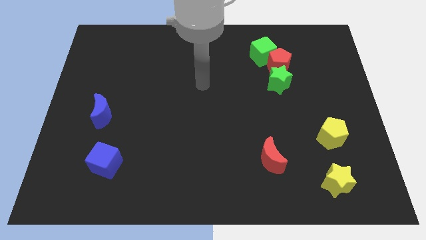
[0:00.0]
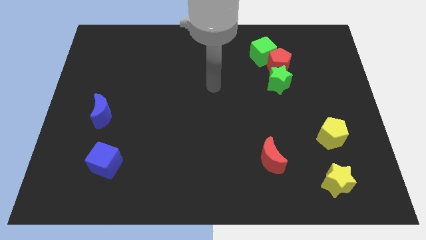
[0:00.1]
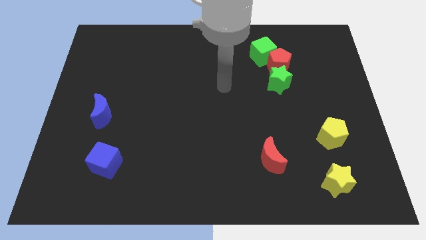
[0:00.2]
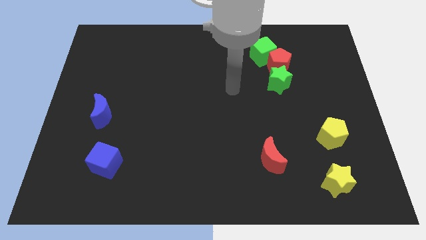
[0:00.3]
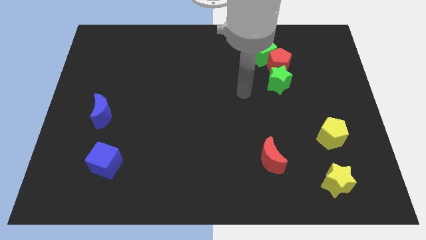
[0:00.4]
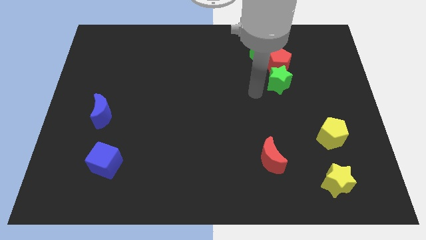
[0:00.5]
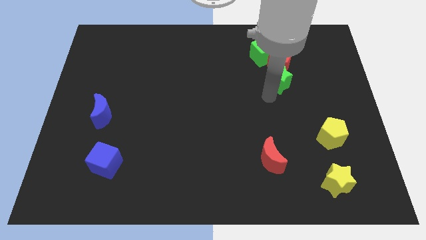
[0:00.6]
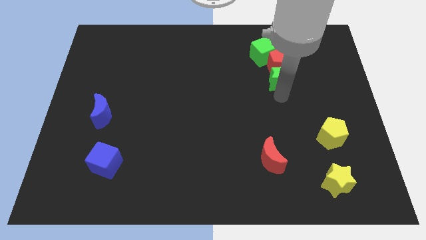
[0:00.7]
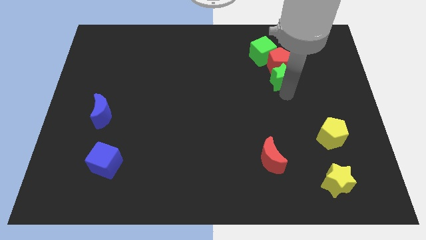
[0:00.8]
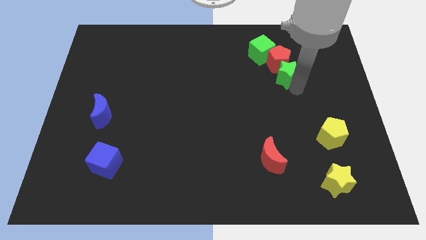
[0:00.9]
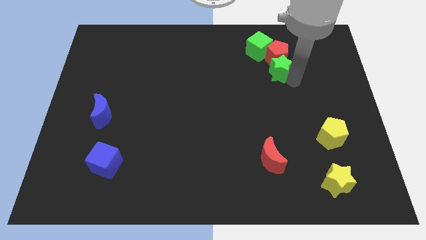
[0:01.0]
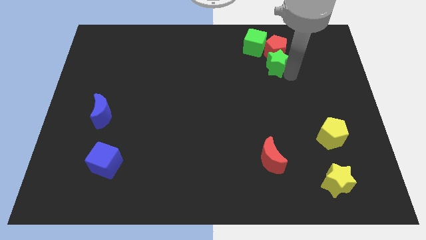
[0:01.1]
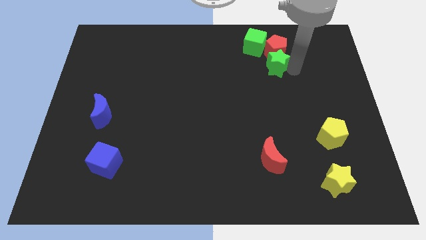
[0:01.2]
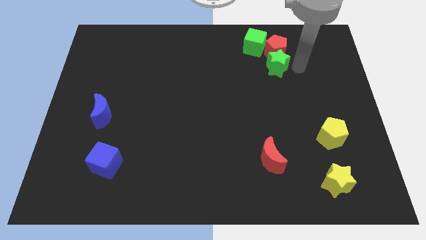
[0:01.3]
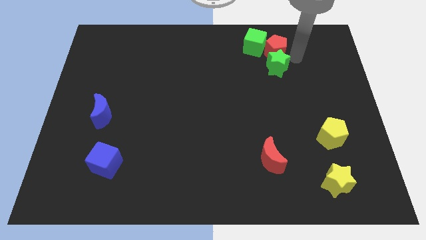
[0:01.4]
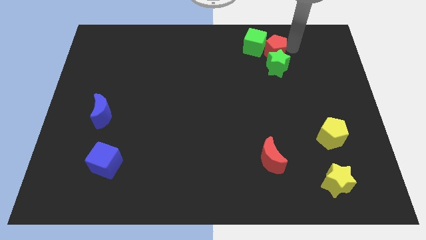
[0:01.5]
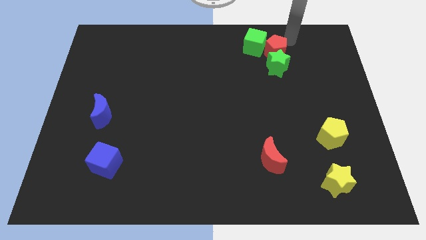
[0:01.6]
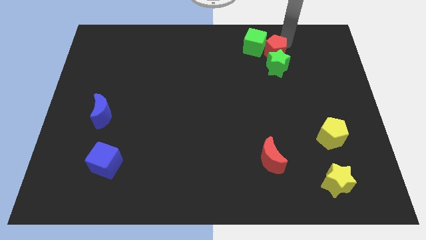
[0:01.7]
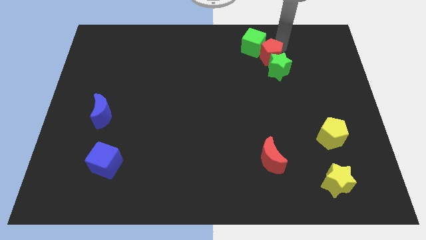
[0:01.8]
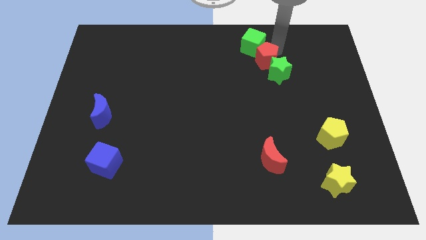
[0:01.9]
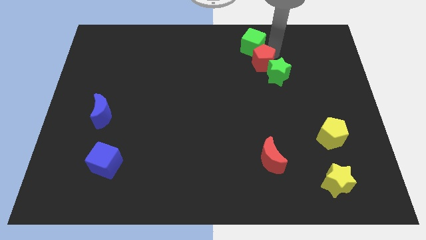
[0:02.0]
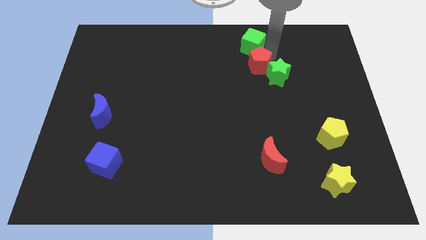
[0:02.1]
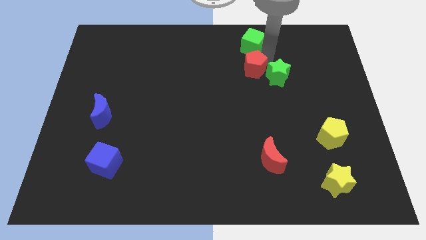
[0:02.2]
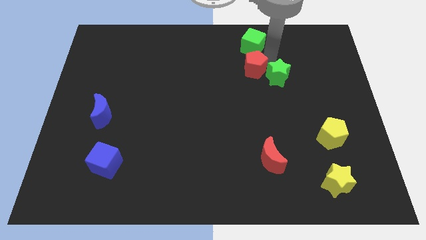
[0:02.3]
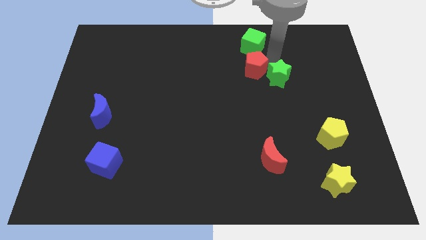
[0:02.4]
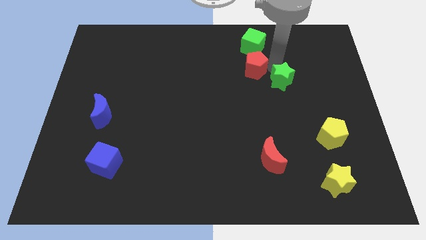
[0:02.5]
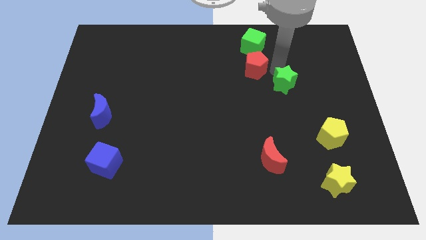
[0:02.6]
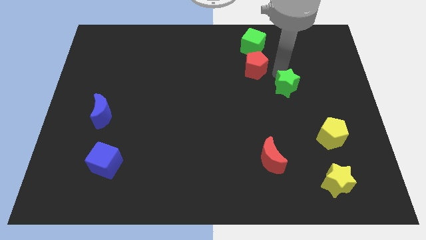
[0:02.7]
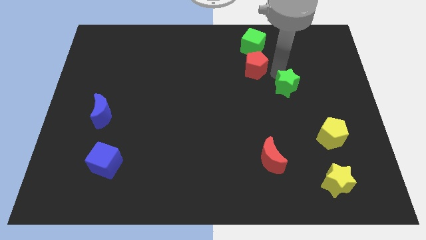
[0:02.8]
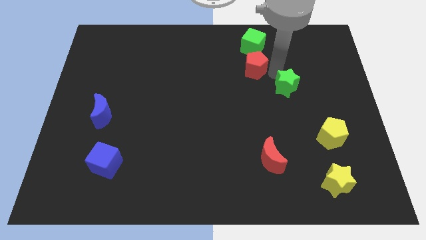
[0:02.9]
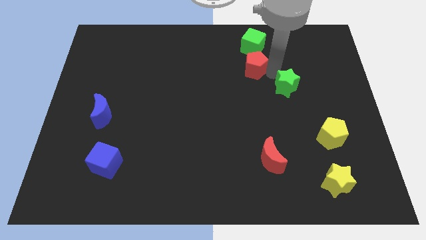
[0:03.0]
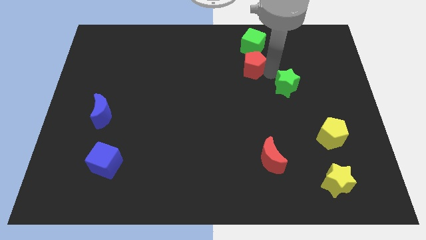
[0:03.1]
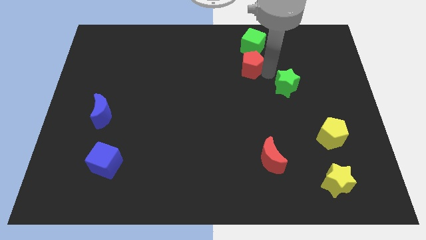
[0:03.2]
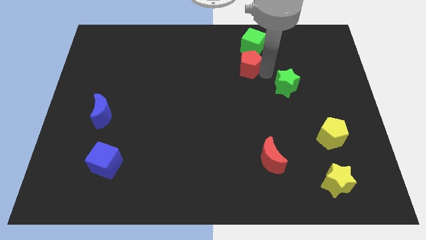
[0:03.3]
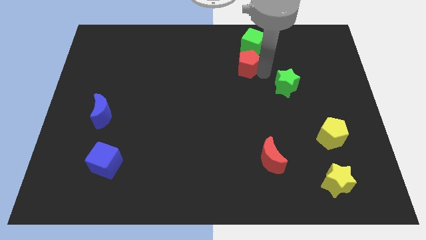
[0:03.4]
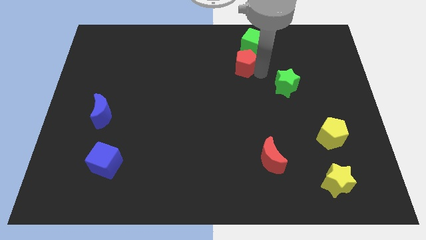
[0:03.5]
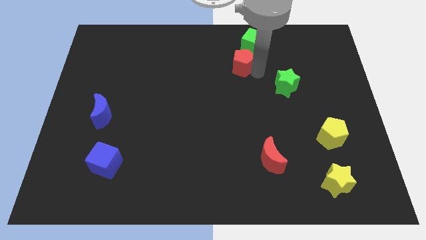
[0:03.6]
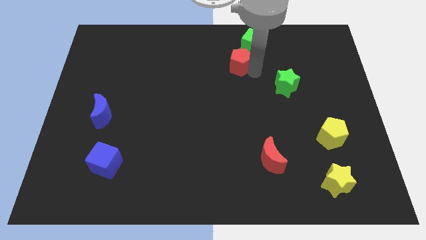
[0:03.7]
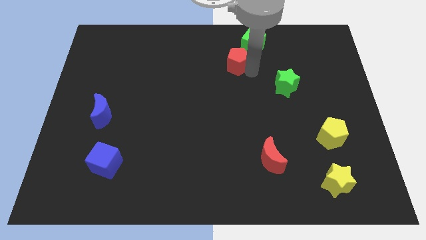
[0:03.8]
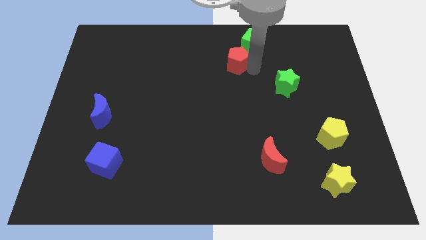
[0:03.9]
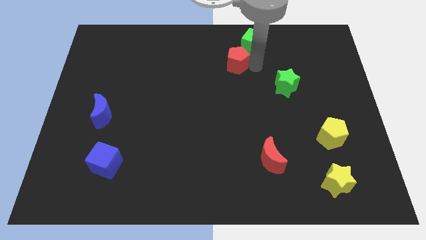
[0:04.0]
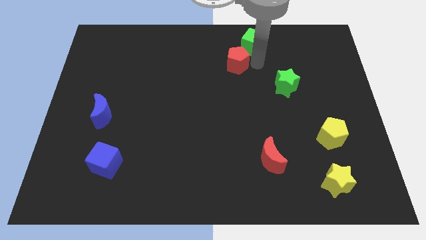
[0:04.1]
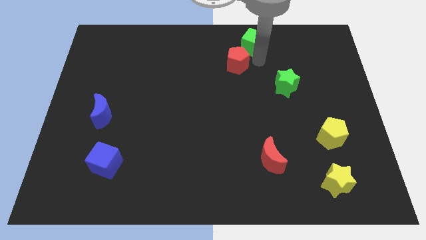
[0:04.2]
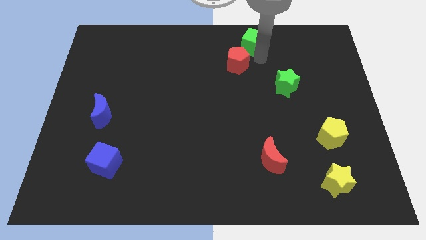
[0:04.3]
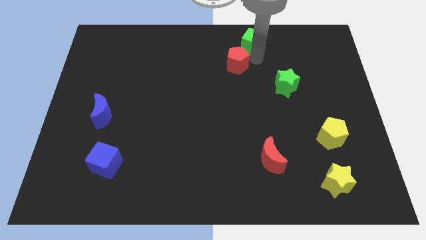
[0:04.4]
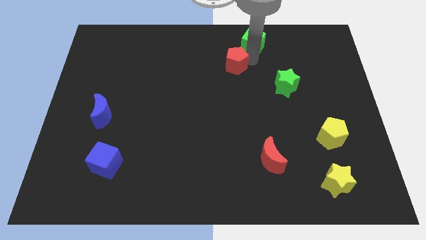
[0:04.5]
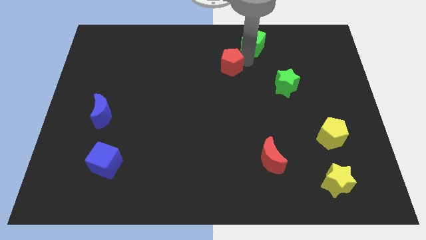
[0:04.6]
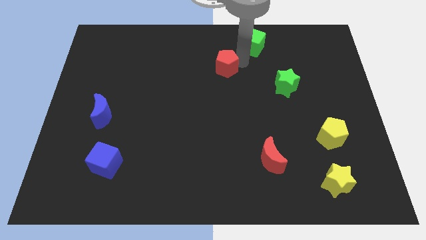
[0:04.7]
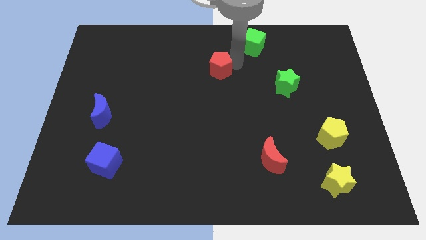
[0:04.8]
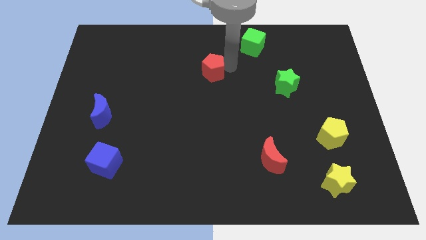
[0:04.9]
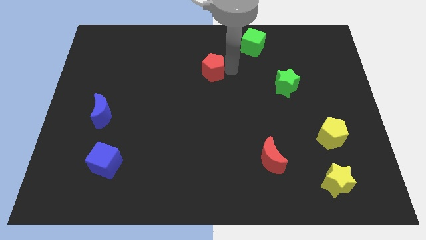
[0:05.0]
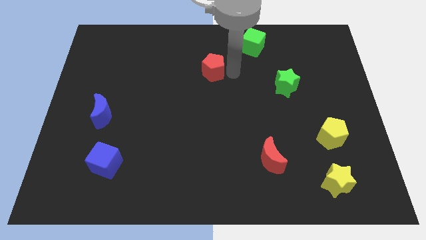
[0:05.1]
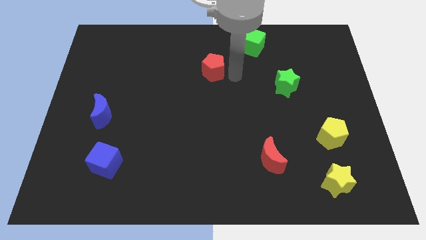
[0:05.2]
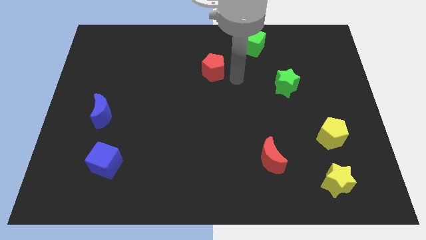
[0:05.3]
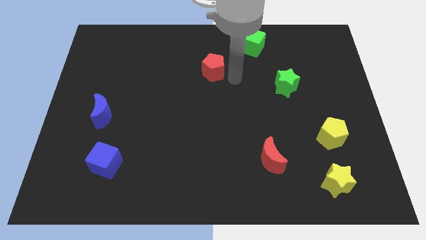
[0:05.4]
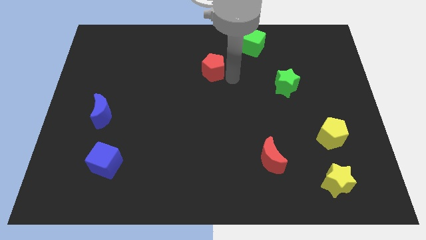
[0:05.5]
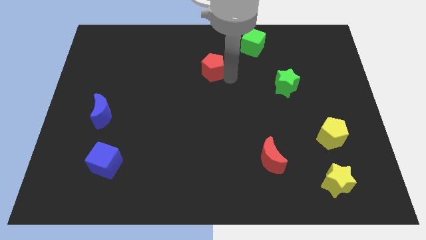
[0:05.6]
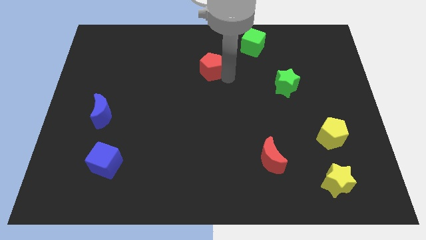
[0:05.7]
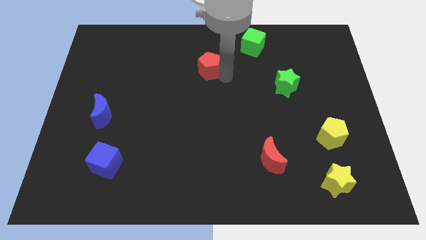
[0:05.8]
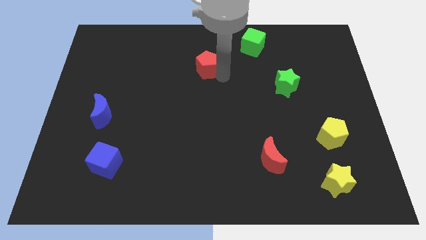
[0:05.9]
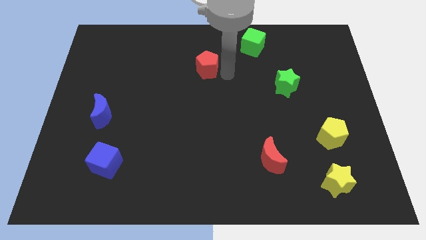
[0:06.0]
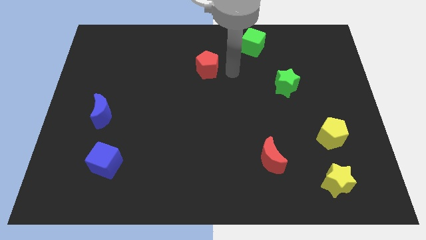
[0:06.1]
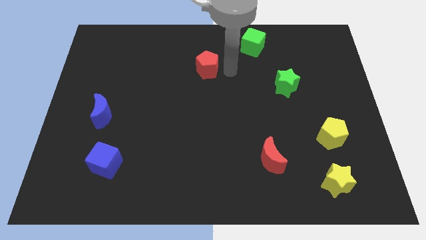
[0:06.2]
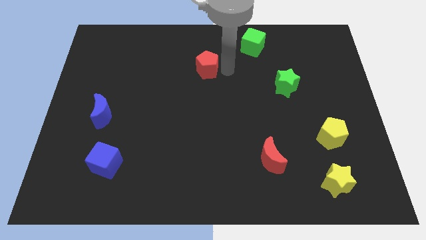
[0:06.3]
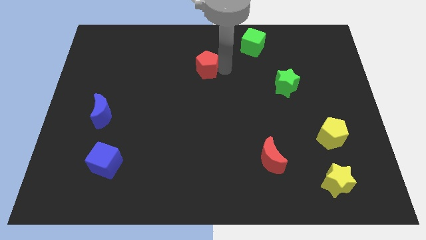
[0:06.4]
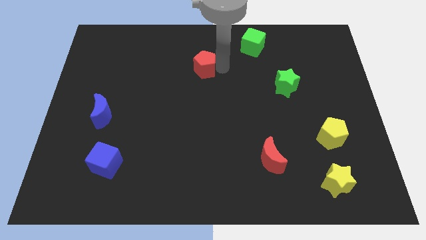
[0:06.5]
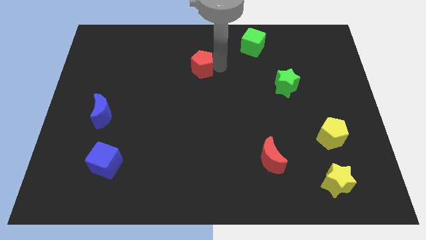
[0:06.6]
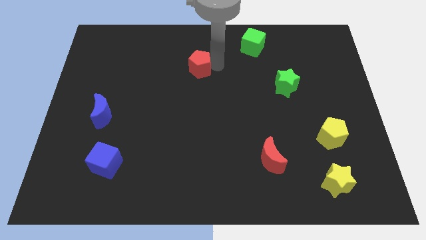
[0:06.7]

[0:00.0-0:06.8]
slide the red pentagon left

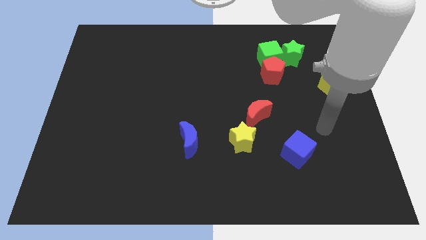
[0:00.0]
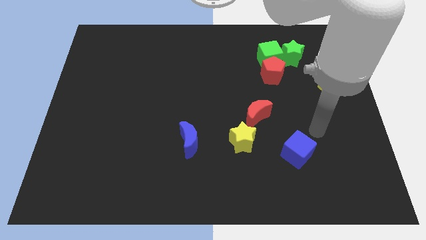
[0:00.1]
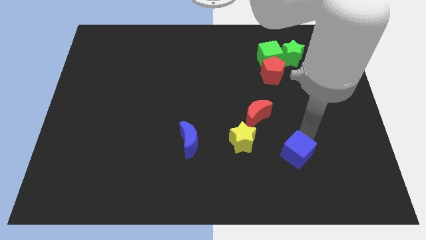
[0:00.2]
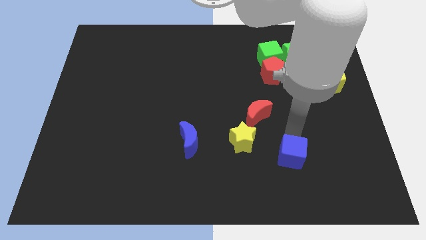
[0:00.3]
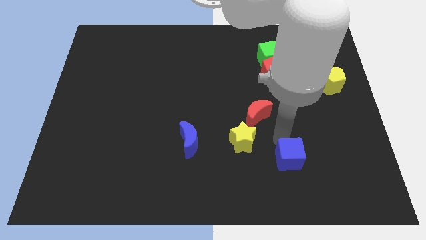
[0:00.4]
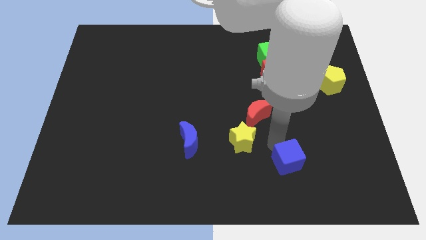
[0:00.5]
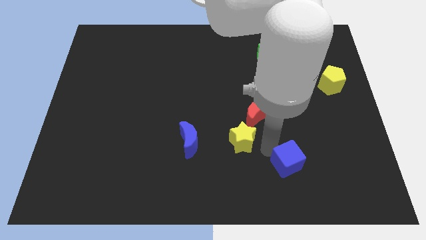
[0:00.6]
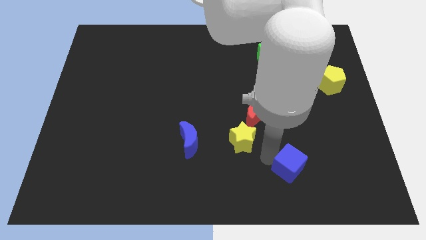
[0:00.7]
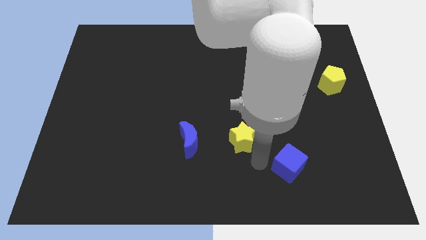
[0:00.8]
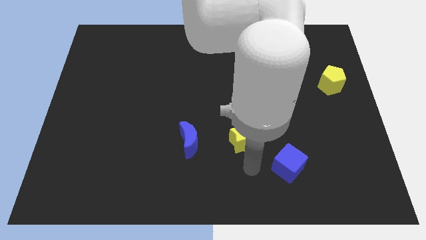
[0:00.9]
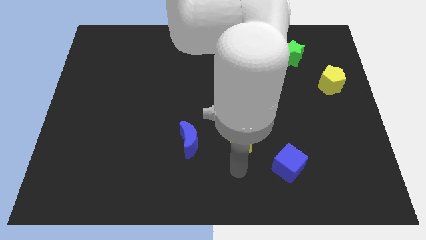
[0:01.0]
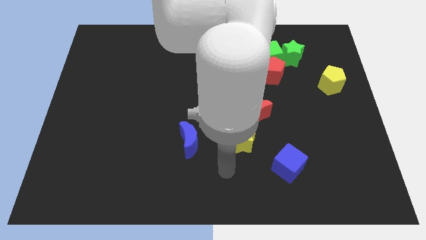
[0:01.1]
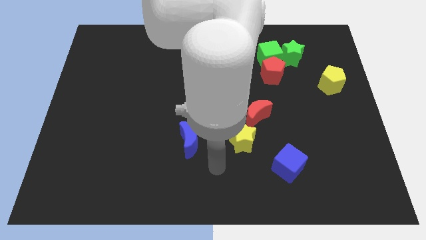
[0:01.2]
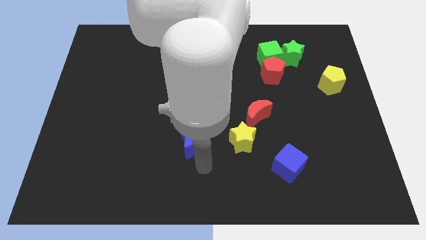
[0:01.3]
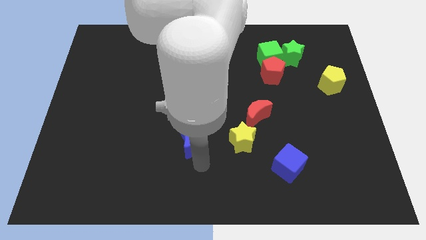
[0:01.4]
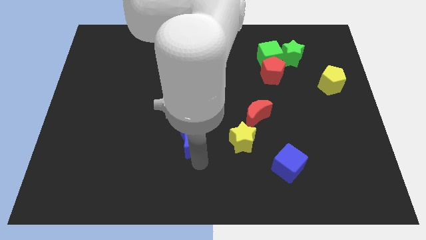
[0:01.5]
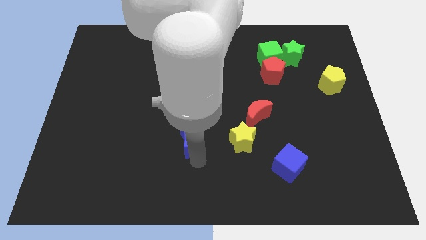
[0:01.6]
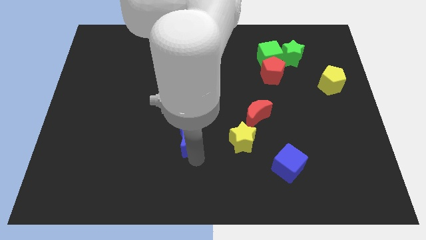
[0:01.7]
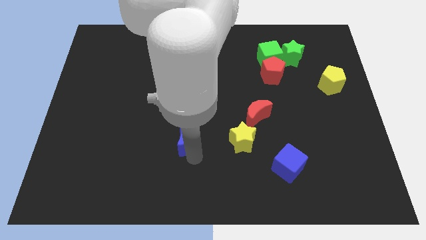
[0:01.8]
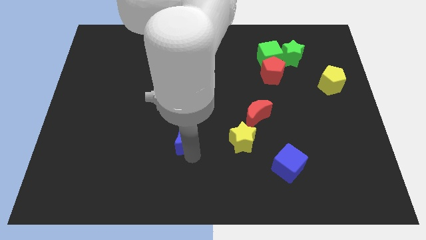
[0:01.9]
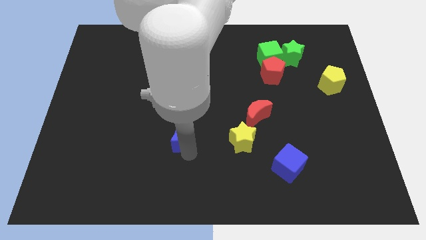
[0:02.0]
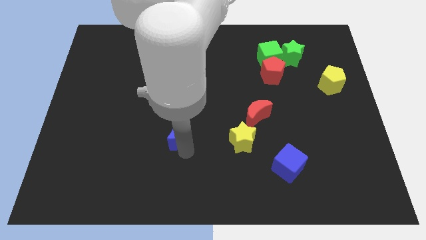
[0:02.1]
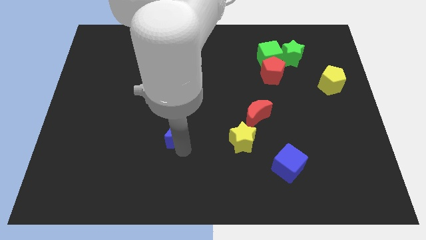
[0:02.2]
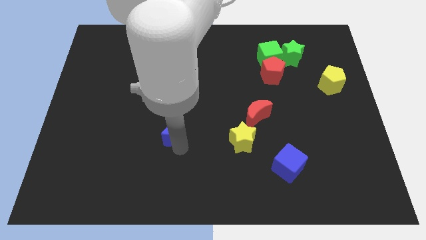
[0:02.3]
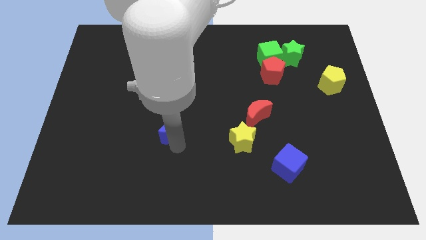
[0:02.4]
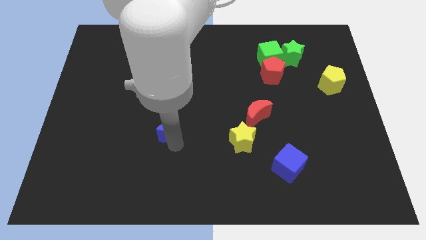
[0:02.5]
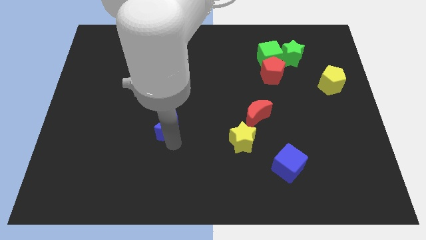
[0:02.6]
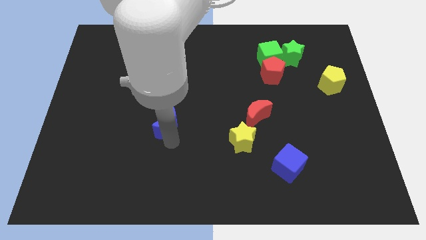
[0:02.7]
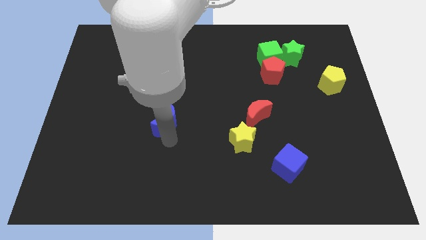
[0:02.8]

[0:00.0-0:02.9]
move the blue moon upwards and to the left diagonally slightly
